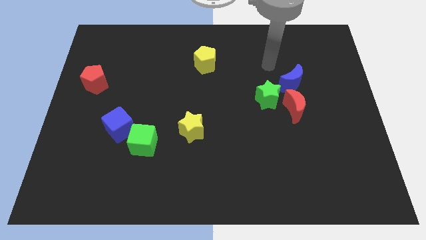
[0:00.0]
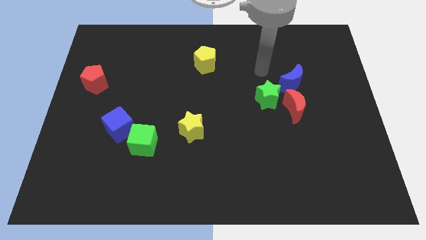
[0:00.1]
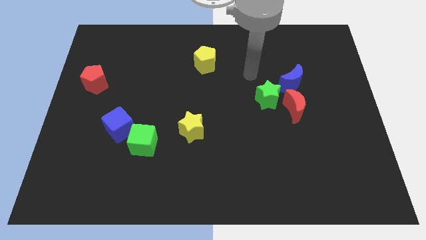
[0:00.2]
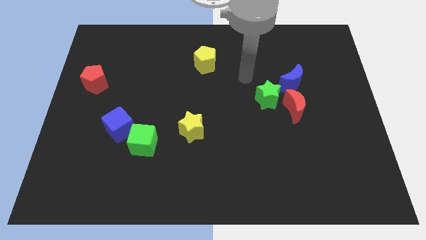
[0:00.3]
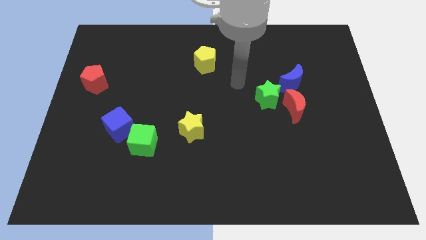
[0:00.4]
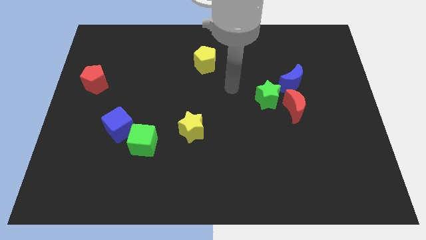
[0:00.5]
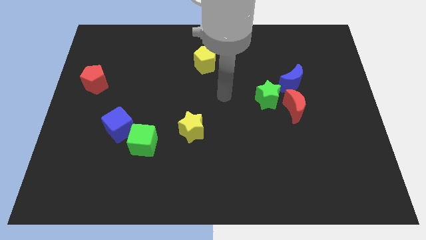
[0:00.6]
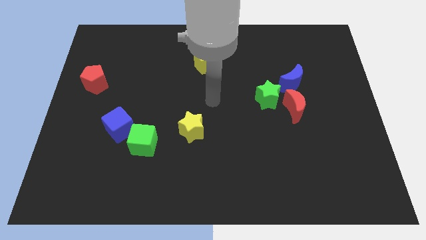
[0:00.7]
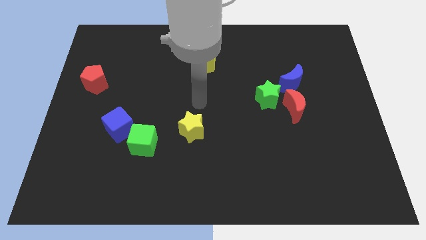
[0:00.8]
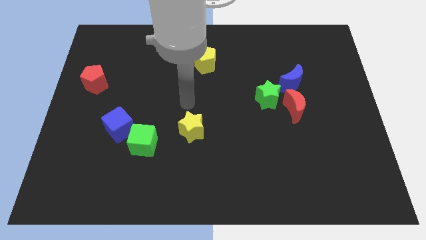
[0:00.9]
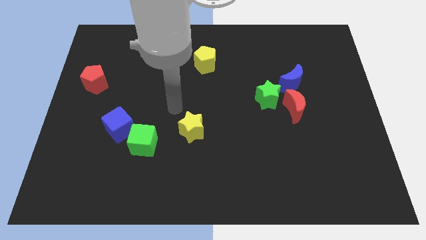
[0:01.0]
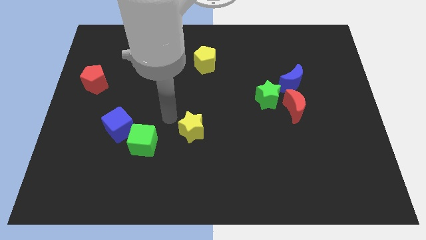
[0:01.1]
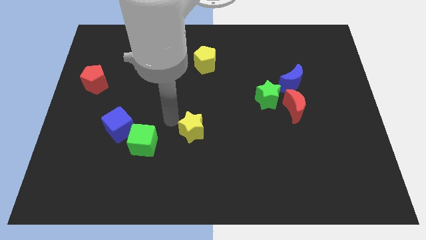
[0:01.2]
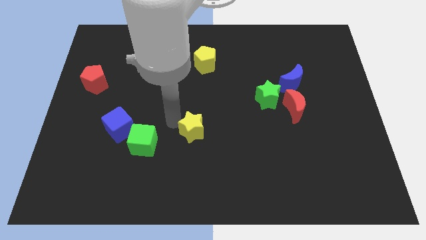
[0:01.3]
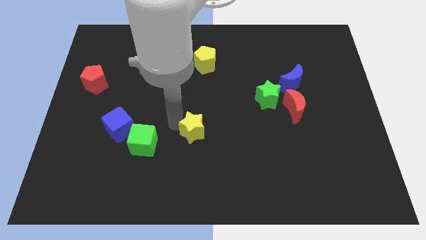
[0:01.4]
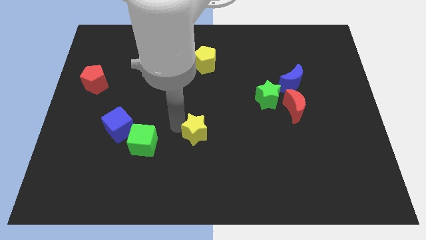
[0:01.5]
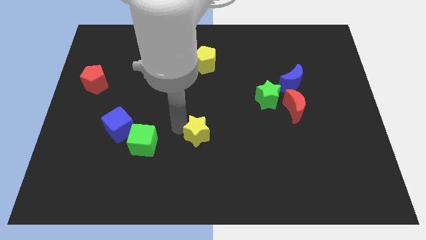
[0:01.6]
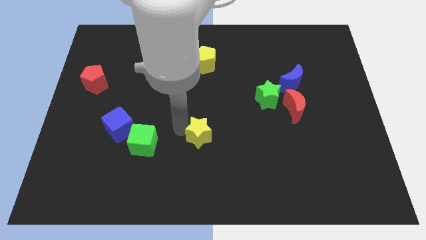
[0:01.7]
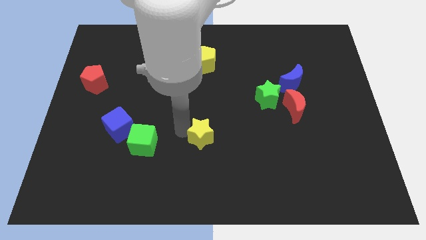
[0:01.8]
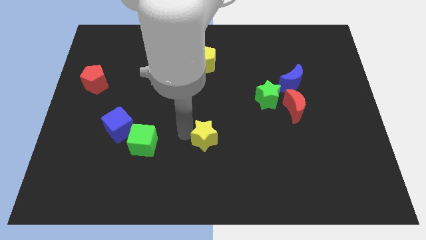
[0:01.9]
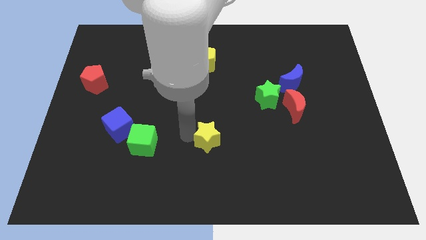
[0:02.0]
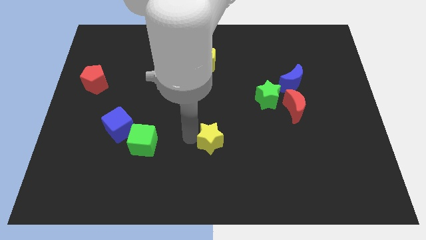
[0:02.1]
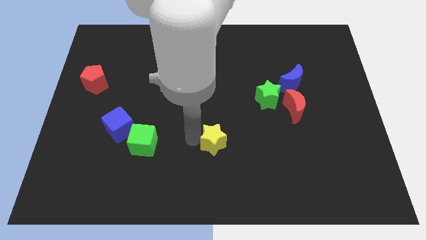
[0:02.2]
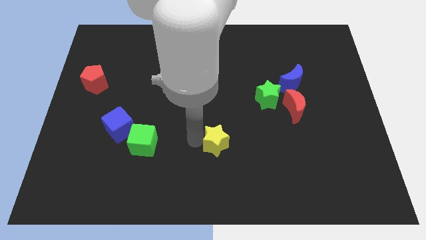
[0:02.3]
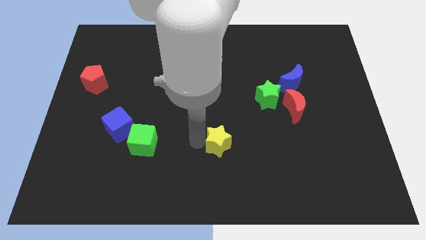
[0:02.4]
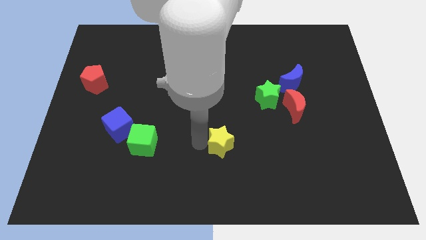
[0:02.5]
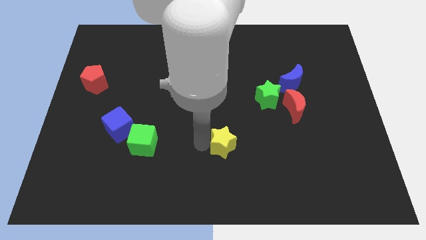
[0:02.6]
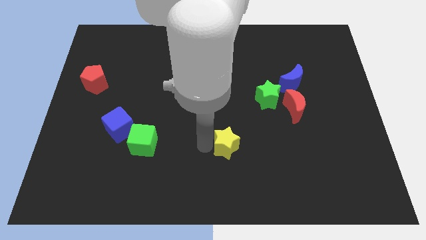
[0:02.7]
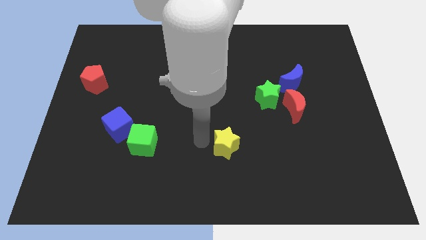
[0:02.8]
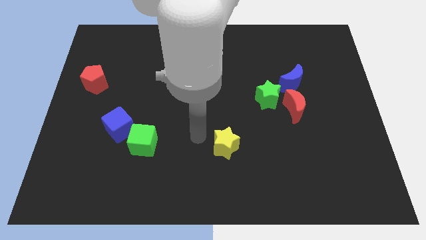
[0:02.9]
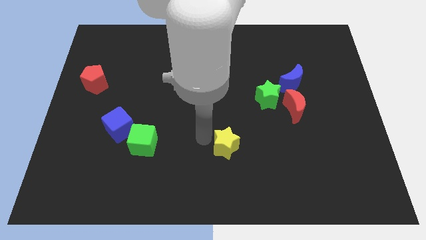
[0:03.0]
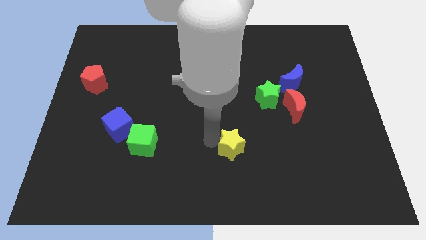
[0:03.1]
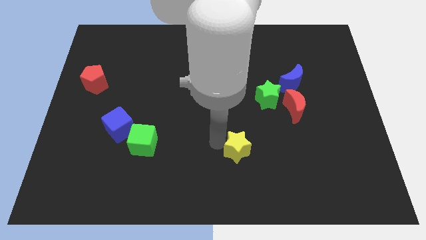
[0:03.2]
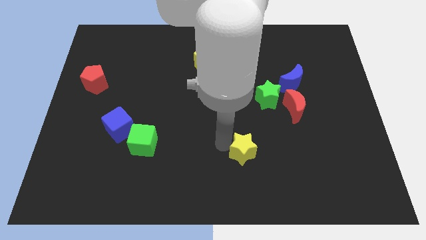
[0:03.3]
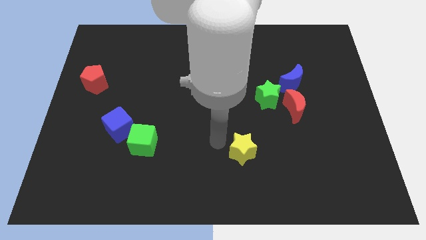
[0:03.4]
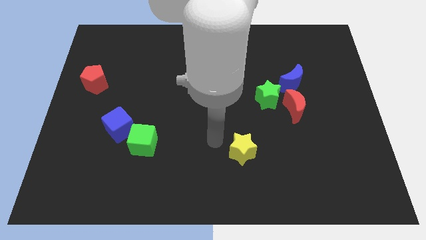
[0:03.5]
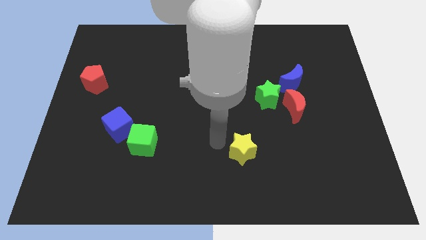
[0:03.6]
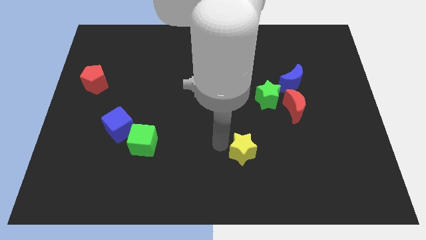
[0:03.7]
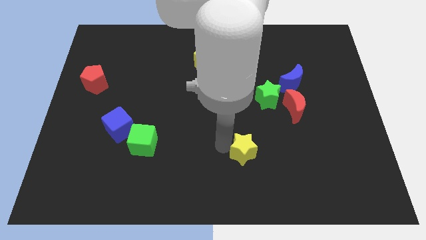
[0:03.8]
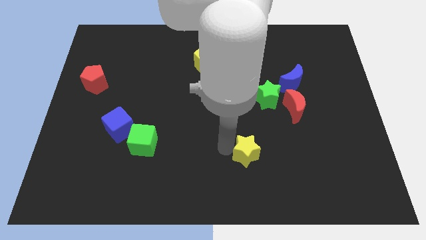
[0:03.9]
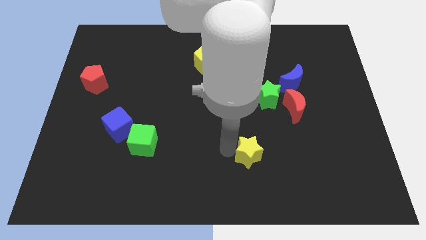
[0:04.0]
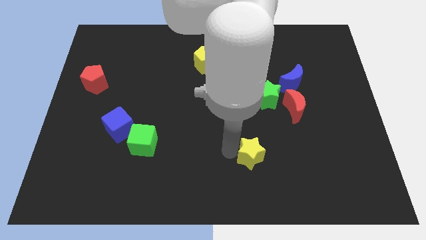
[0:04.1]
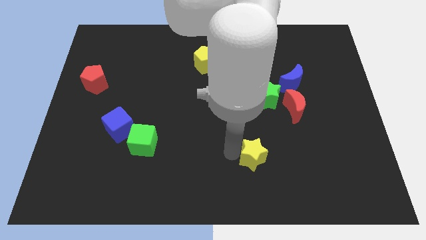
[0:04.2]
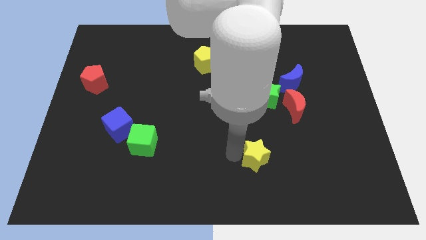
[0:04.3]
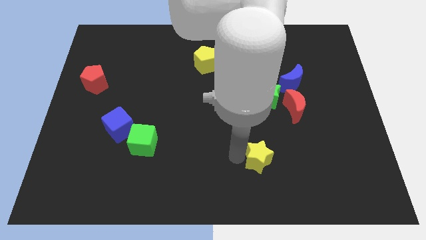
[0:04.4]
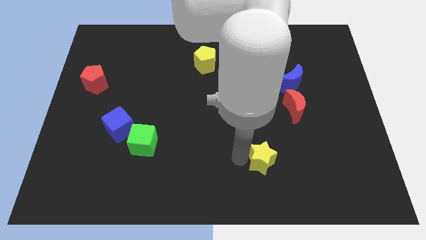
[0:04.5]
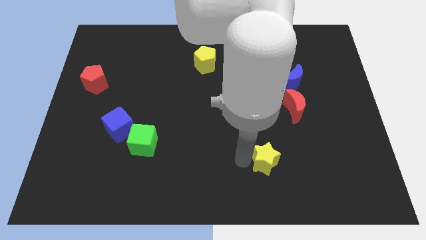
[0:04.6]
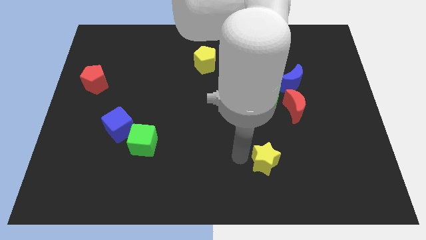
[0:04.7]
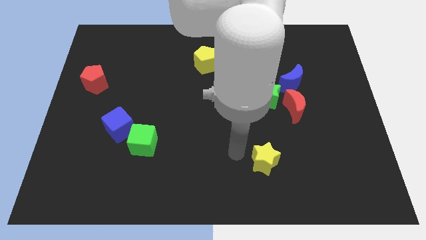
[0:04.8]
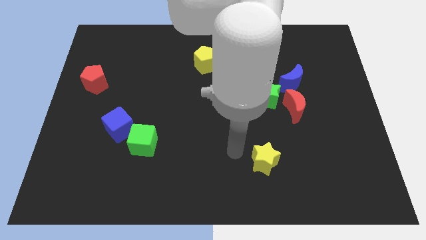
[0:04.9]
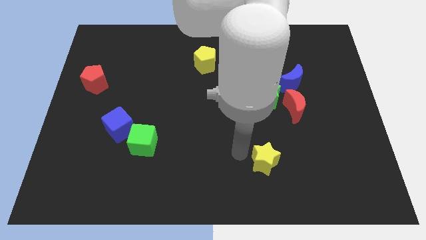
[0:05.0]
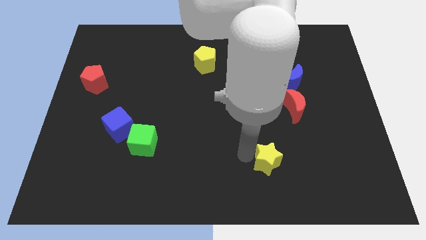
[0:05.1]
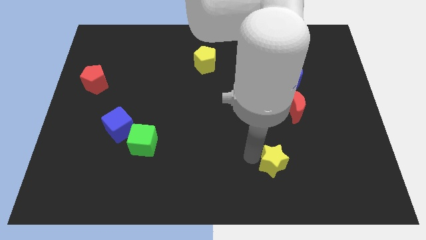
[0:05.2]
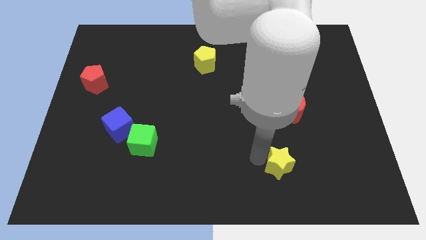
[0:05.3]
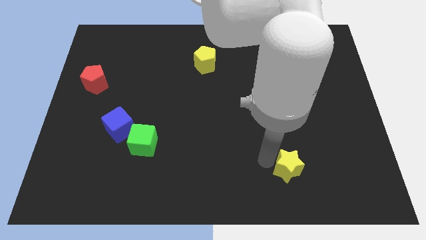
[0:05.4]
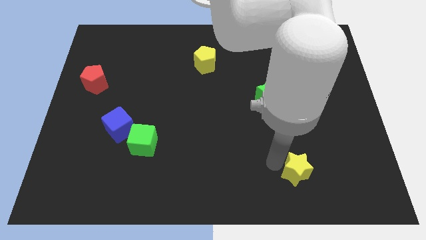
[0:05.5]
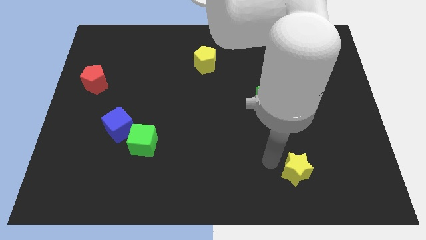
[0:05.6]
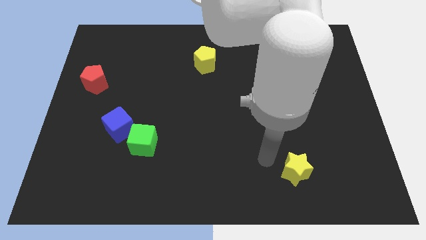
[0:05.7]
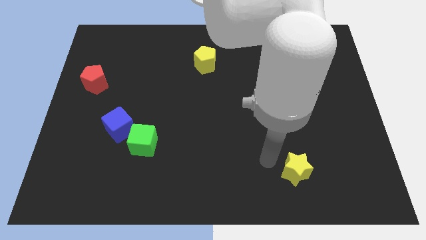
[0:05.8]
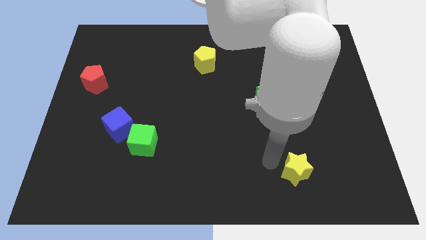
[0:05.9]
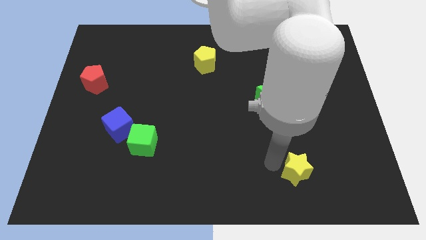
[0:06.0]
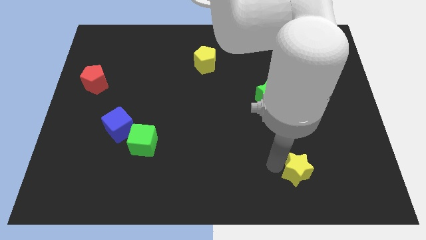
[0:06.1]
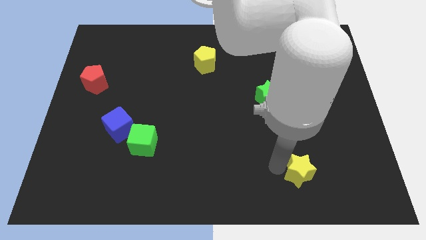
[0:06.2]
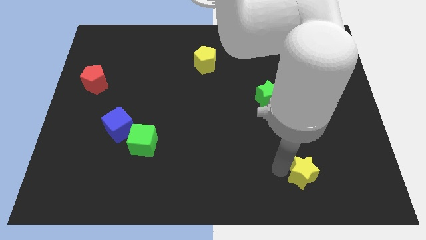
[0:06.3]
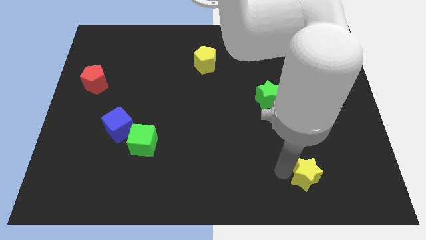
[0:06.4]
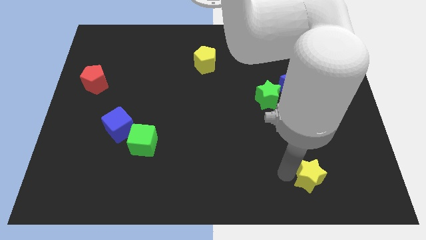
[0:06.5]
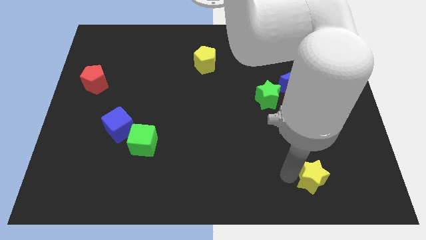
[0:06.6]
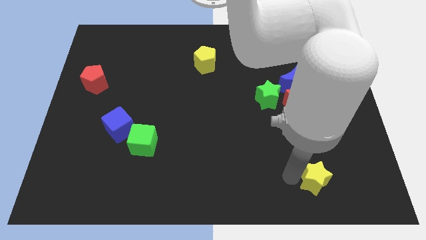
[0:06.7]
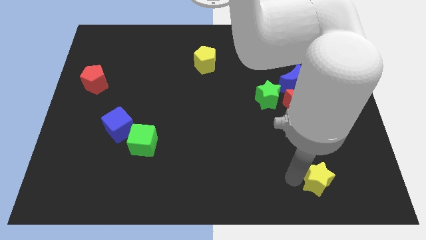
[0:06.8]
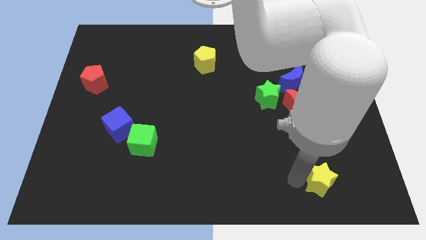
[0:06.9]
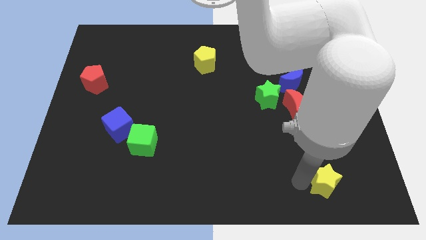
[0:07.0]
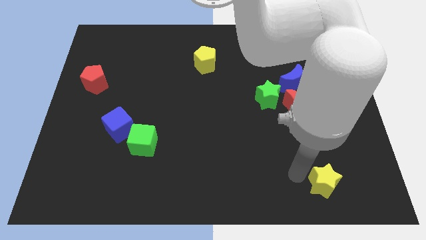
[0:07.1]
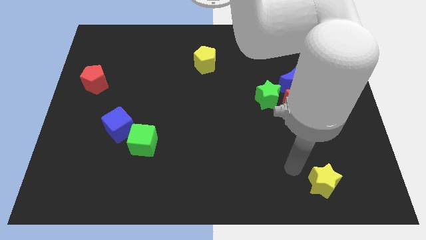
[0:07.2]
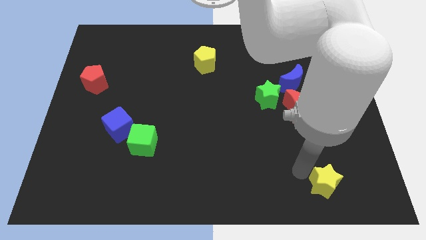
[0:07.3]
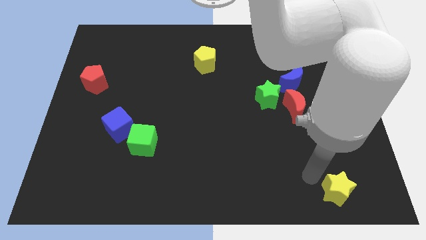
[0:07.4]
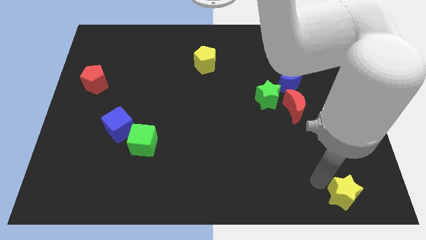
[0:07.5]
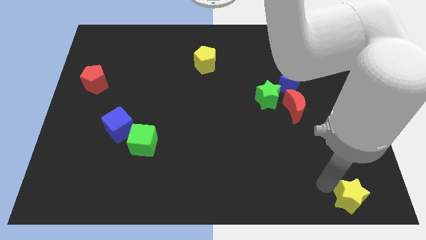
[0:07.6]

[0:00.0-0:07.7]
slide the yellow star to the bottom right corner
